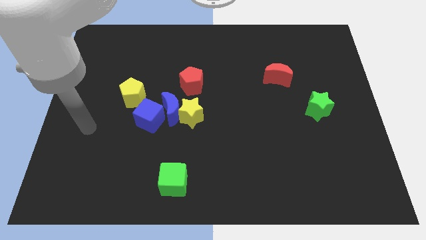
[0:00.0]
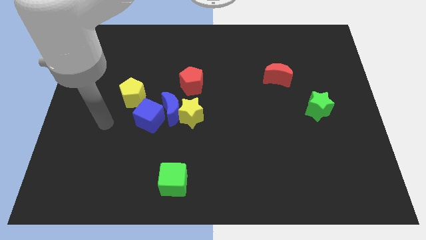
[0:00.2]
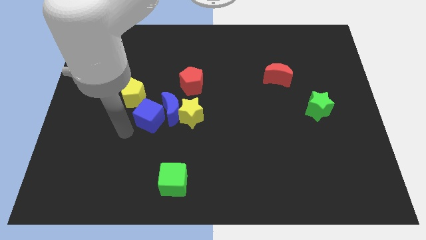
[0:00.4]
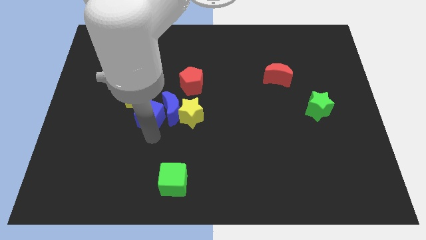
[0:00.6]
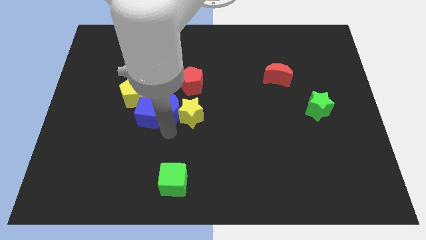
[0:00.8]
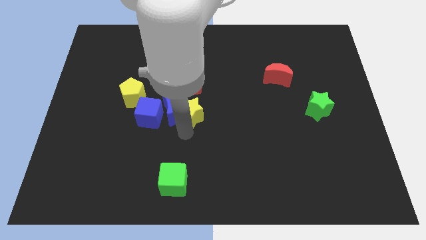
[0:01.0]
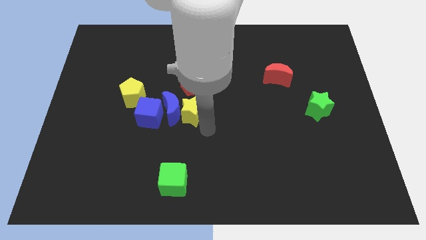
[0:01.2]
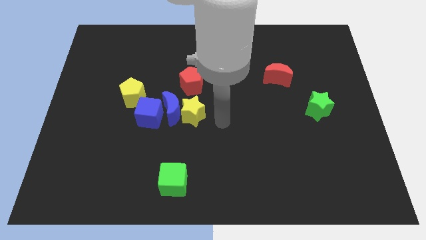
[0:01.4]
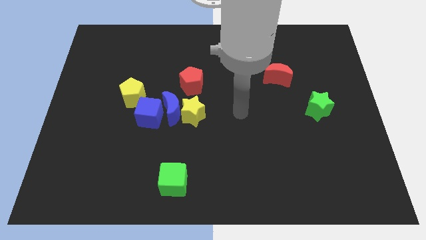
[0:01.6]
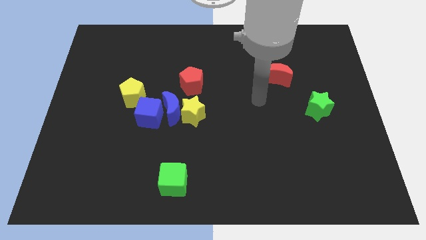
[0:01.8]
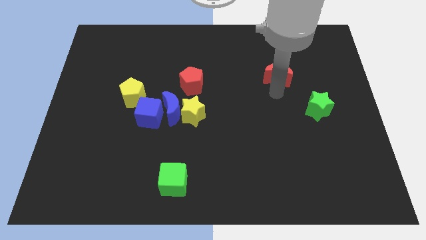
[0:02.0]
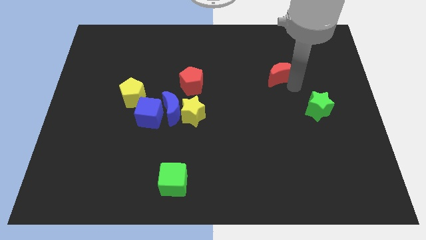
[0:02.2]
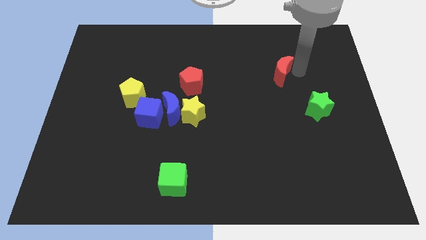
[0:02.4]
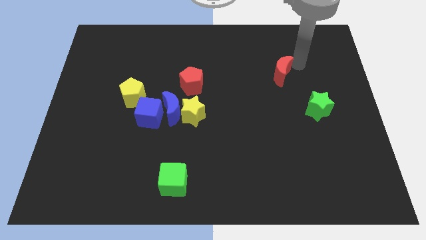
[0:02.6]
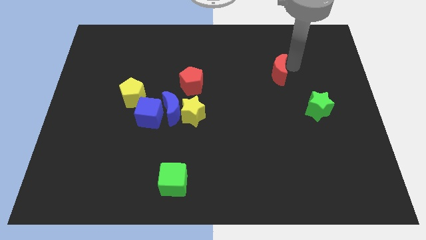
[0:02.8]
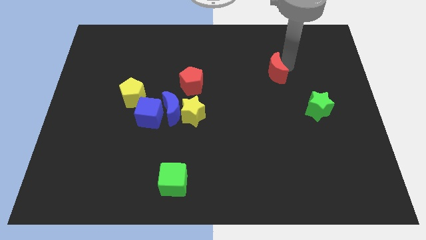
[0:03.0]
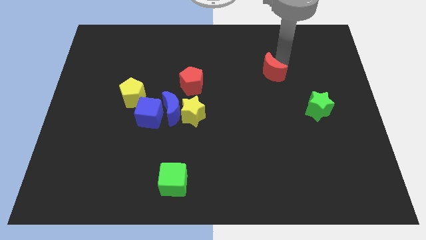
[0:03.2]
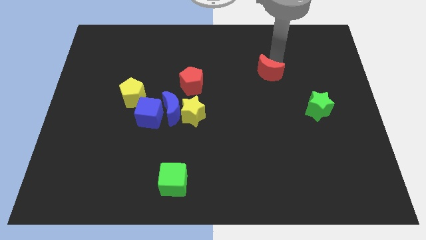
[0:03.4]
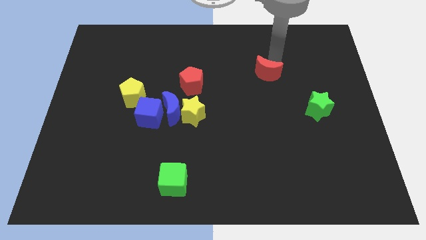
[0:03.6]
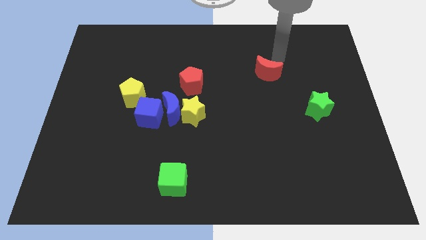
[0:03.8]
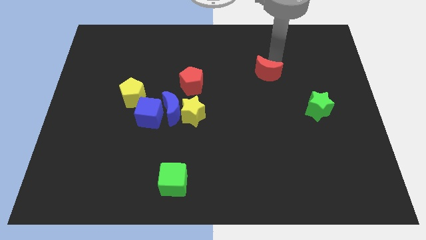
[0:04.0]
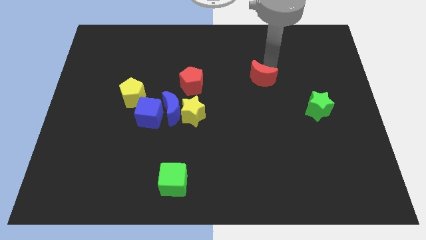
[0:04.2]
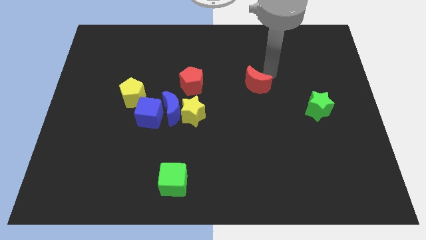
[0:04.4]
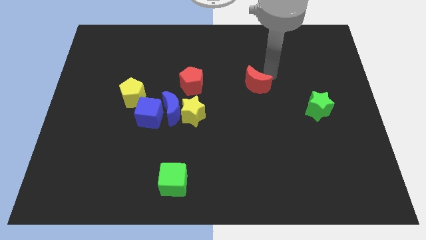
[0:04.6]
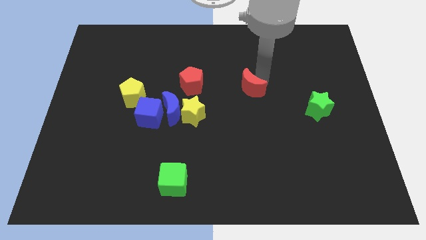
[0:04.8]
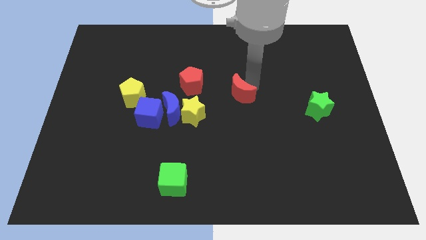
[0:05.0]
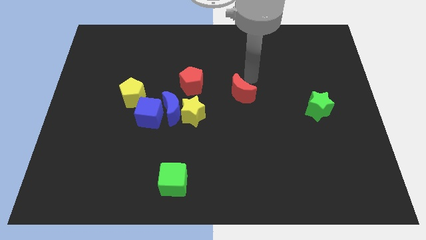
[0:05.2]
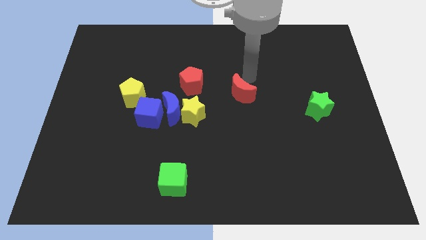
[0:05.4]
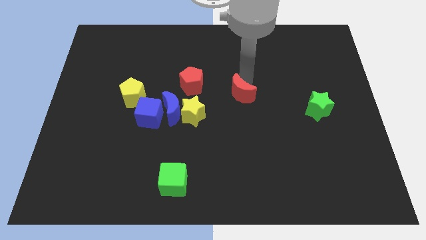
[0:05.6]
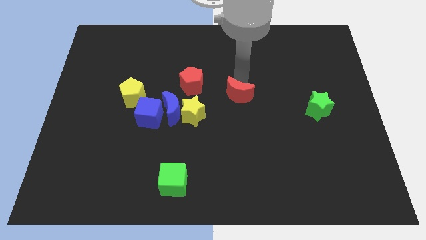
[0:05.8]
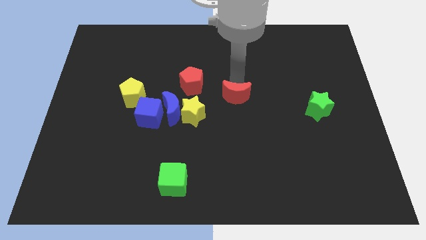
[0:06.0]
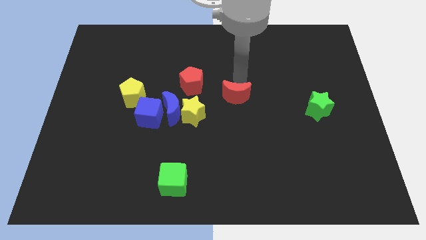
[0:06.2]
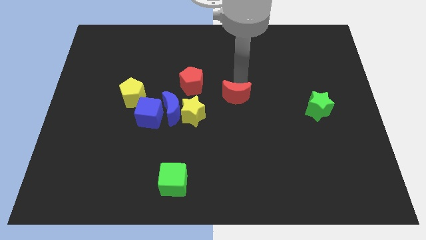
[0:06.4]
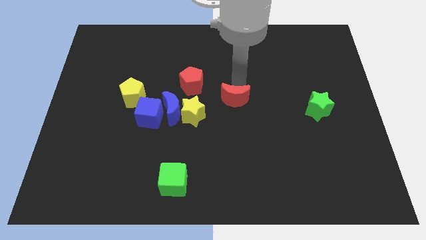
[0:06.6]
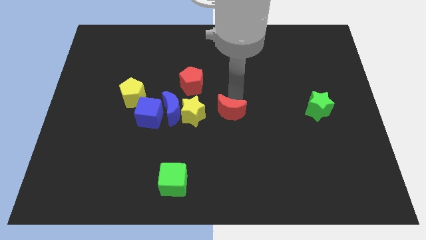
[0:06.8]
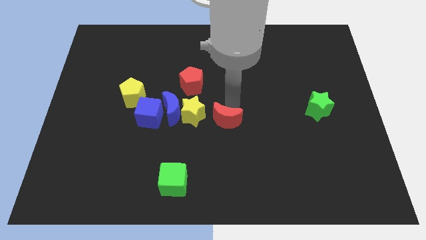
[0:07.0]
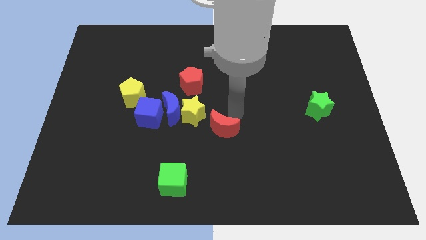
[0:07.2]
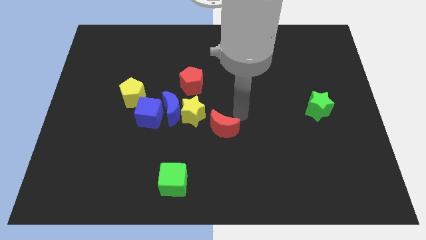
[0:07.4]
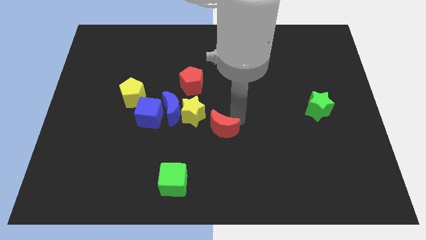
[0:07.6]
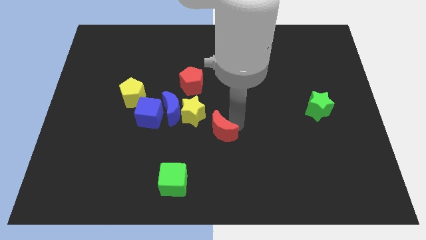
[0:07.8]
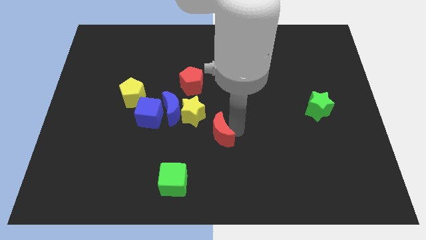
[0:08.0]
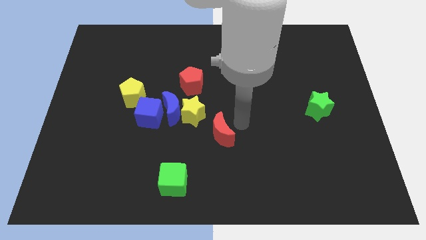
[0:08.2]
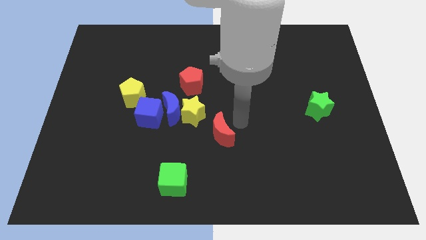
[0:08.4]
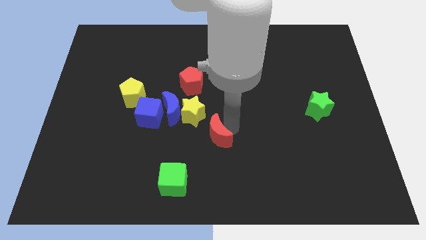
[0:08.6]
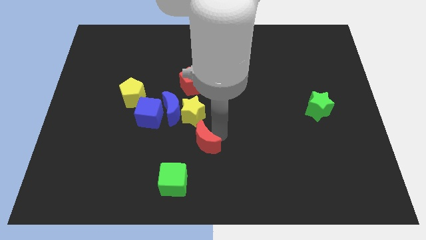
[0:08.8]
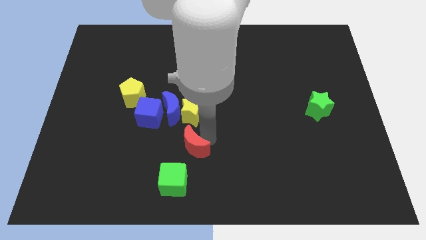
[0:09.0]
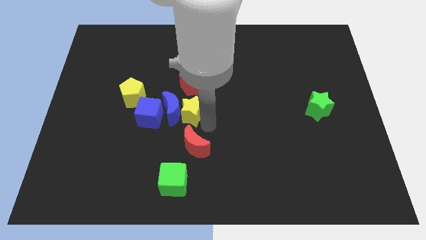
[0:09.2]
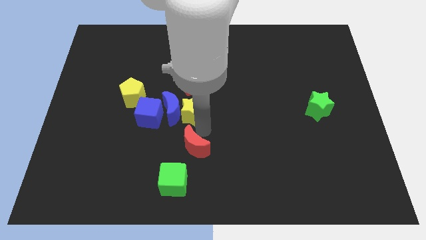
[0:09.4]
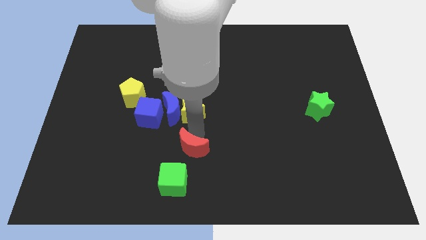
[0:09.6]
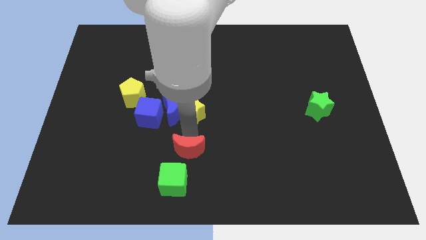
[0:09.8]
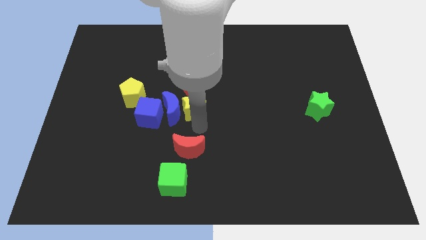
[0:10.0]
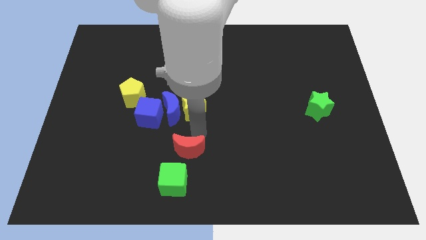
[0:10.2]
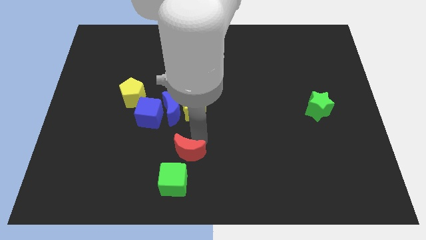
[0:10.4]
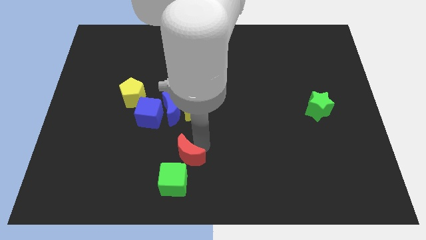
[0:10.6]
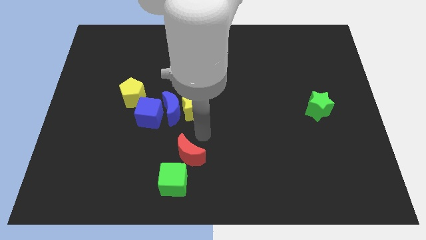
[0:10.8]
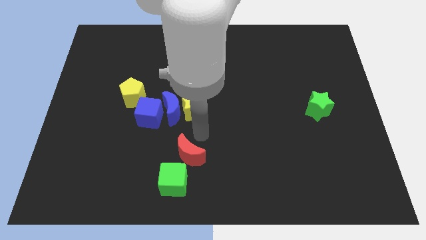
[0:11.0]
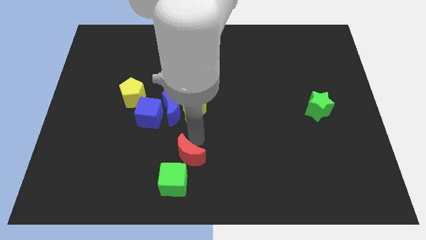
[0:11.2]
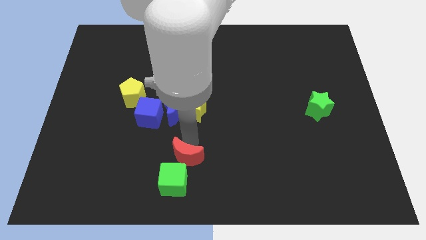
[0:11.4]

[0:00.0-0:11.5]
put the red moon to the green cube

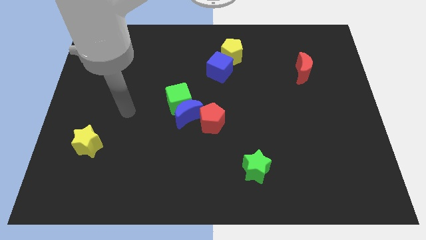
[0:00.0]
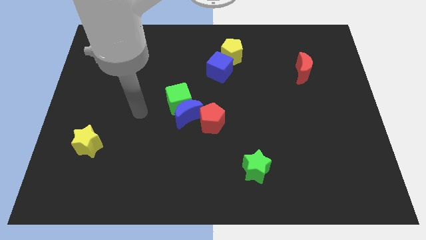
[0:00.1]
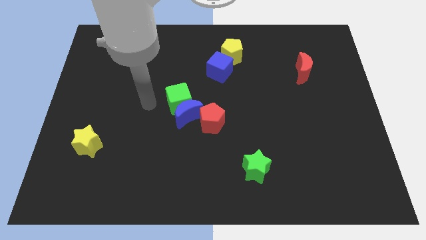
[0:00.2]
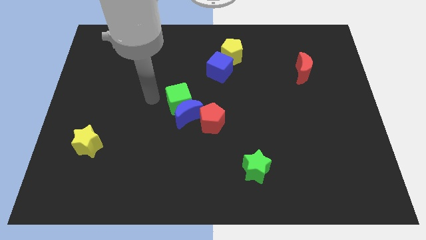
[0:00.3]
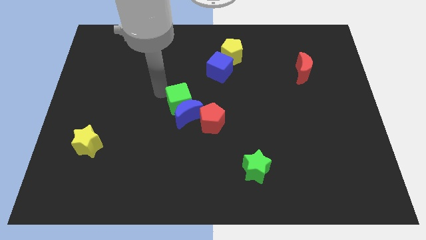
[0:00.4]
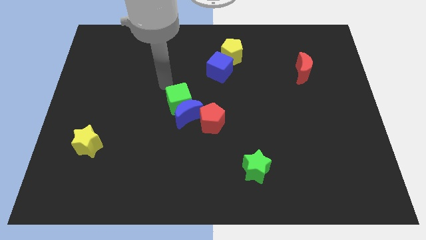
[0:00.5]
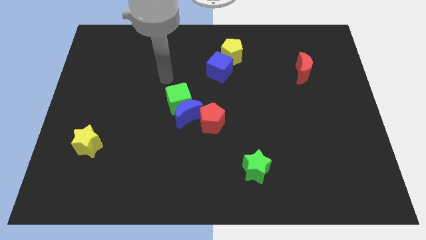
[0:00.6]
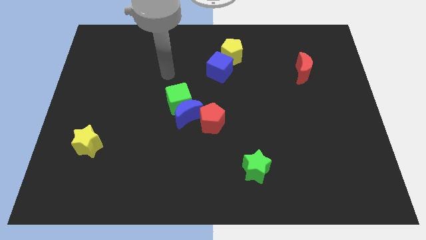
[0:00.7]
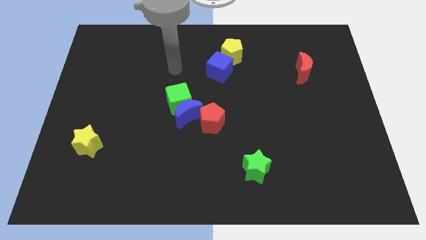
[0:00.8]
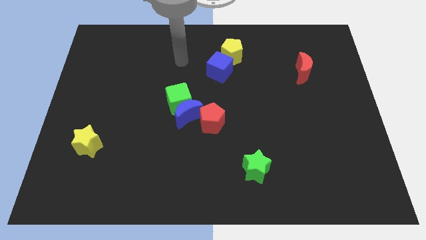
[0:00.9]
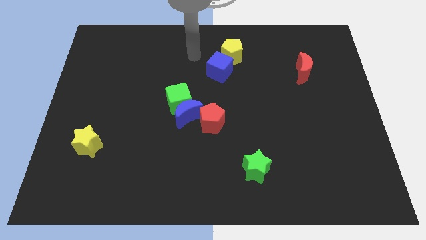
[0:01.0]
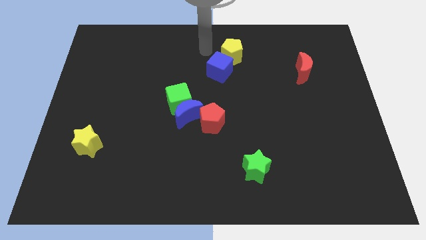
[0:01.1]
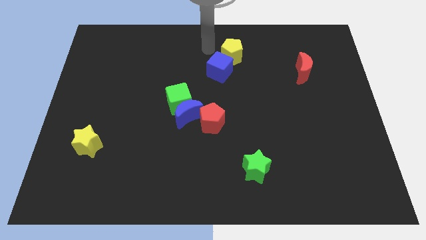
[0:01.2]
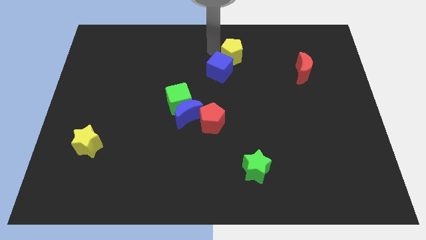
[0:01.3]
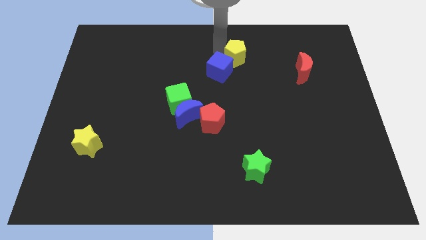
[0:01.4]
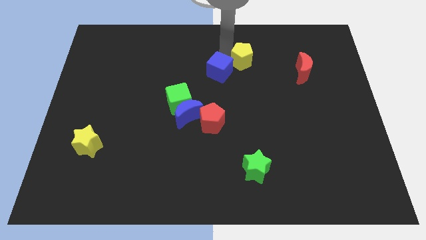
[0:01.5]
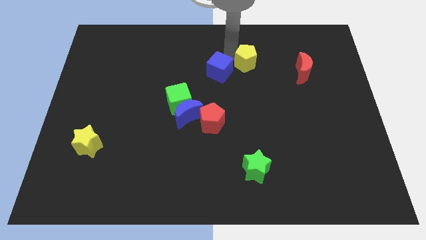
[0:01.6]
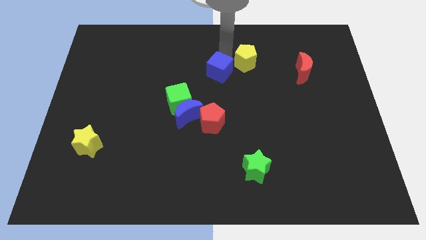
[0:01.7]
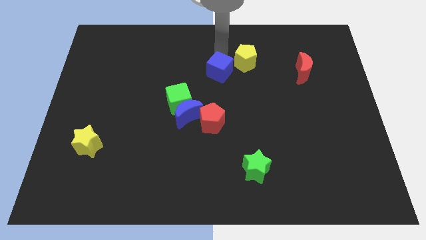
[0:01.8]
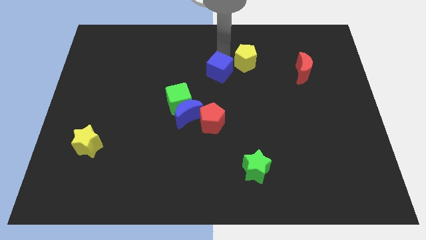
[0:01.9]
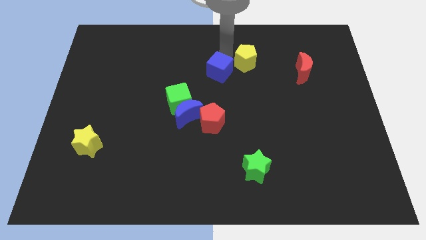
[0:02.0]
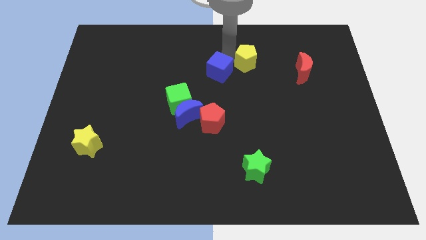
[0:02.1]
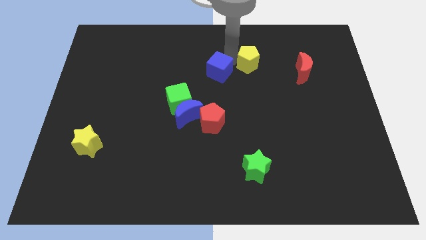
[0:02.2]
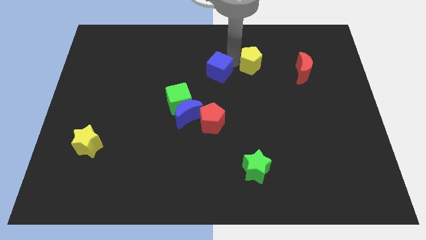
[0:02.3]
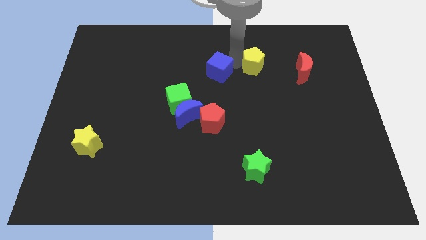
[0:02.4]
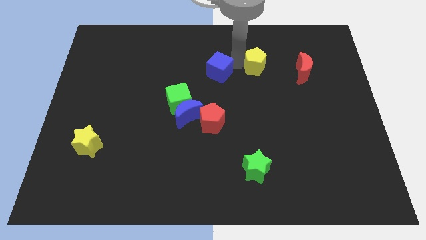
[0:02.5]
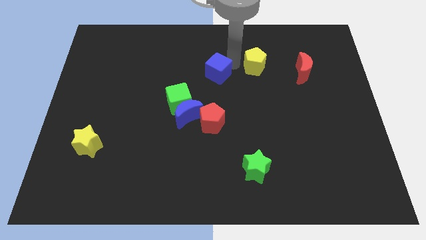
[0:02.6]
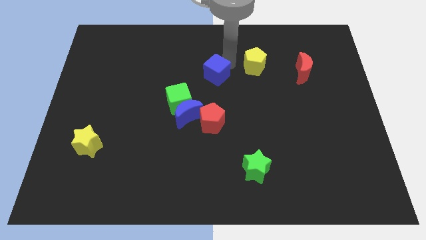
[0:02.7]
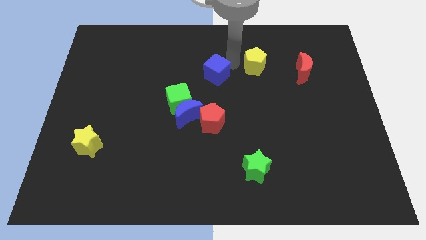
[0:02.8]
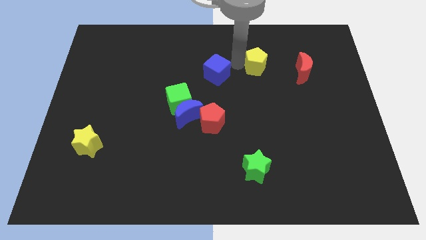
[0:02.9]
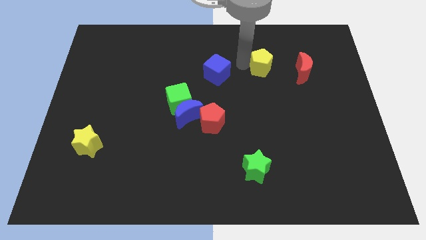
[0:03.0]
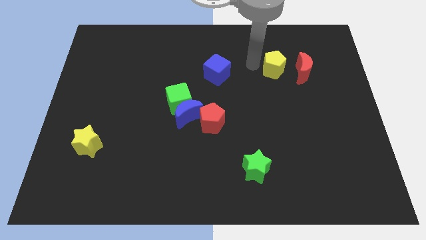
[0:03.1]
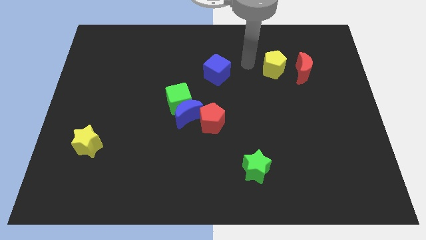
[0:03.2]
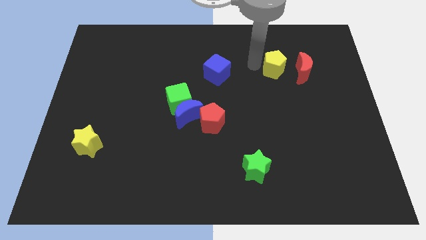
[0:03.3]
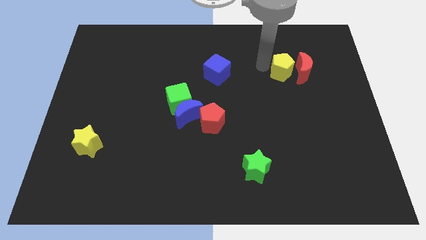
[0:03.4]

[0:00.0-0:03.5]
push the yellow pentagon towards the red moon
